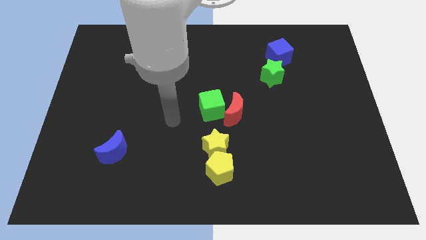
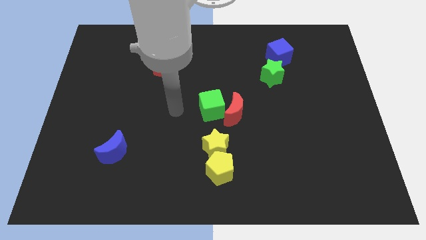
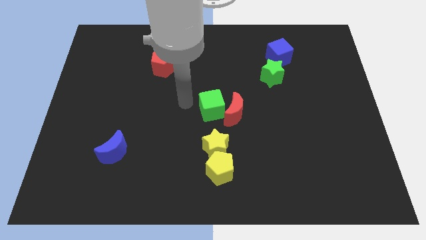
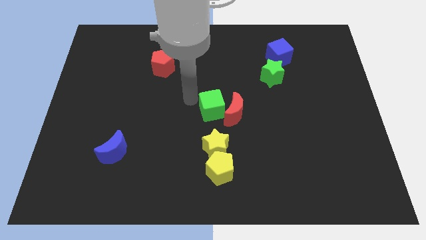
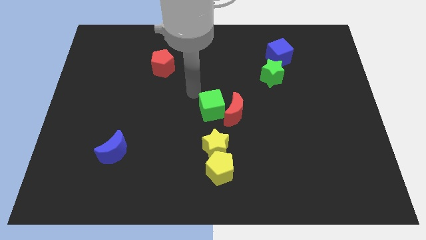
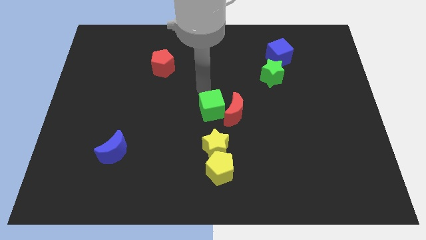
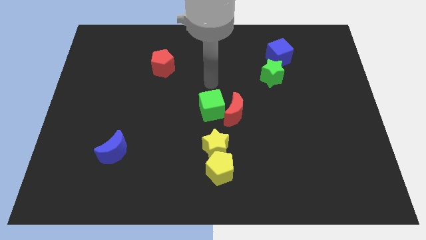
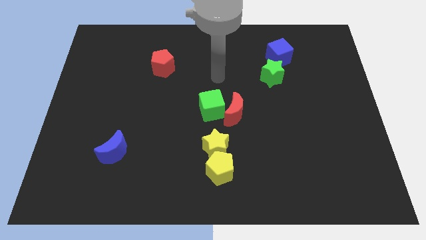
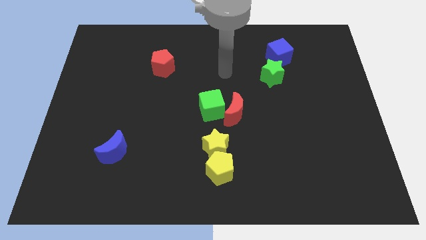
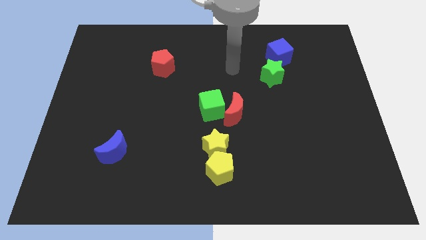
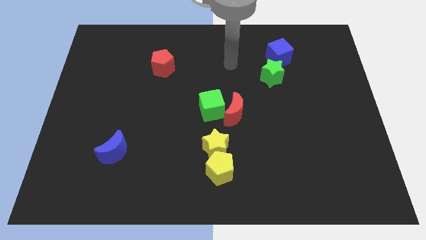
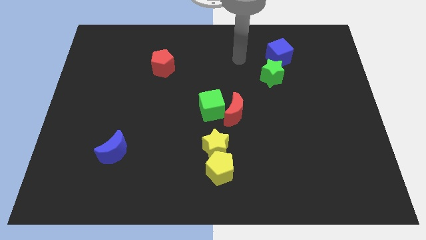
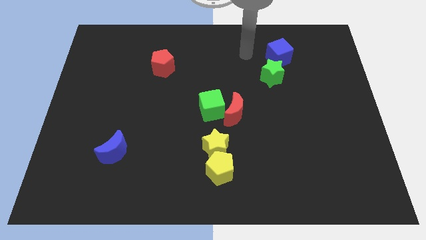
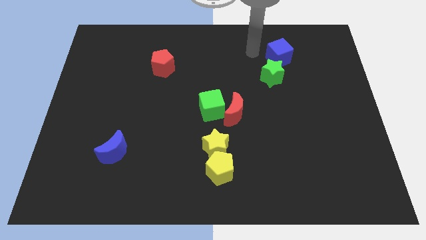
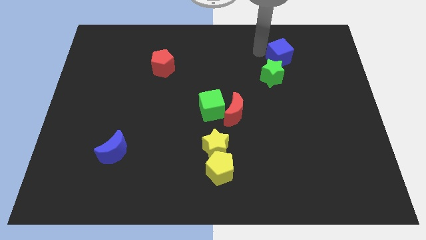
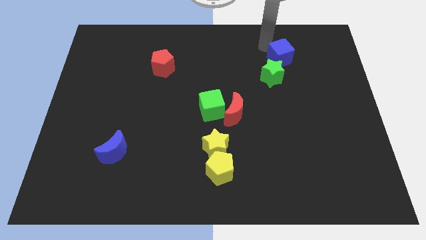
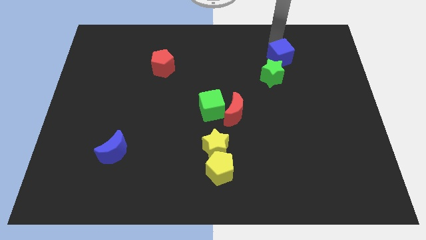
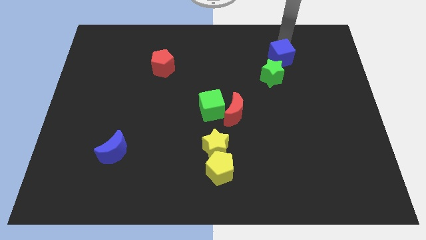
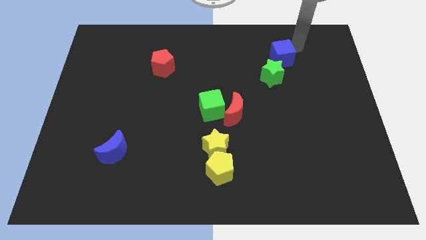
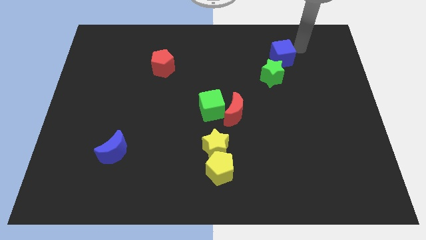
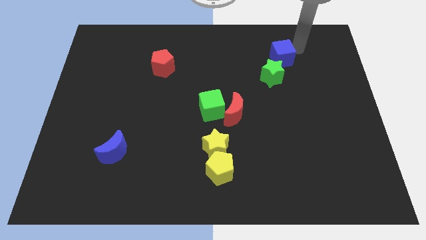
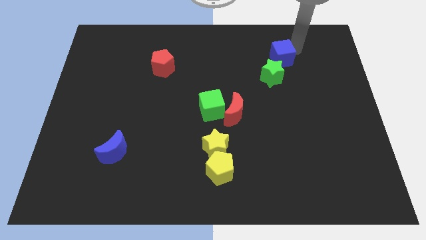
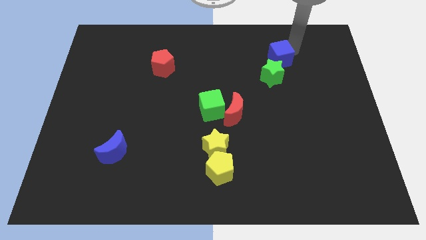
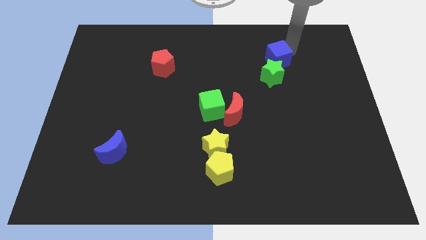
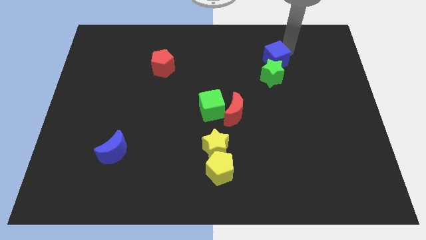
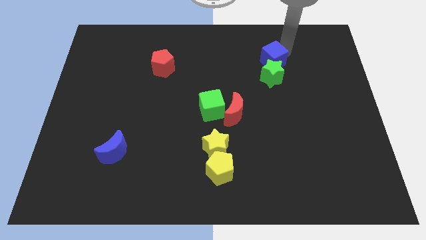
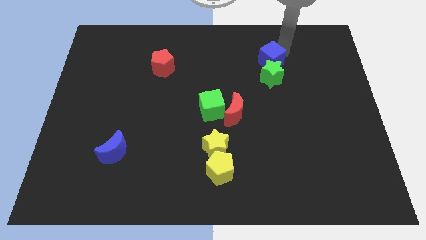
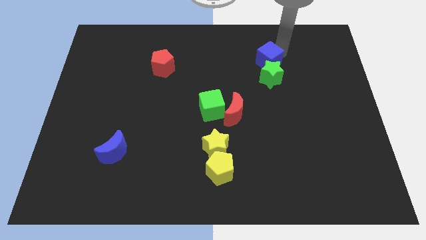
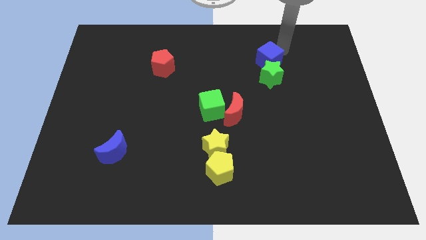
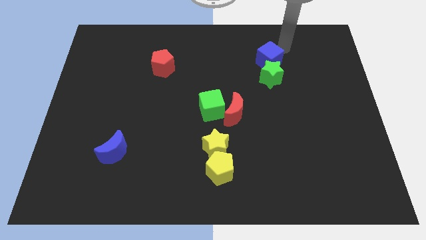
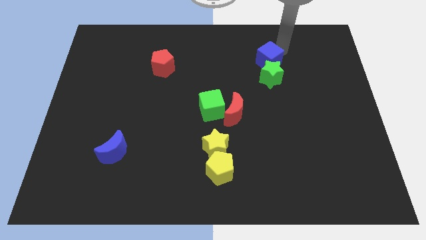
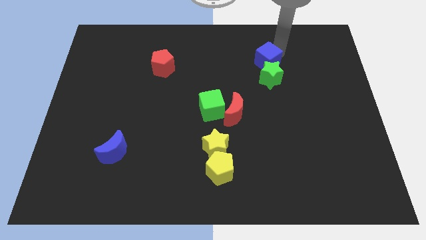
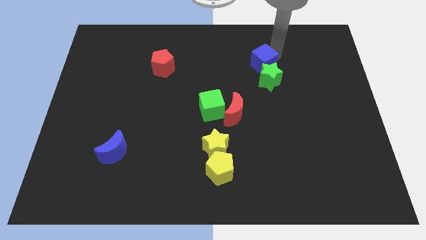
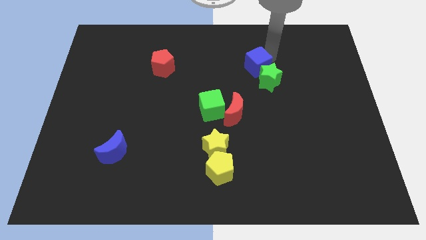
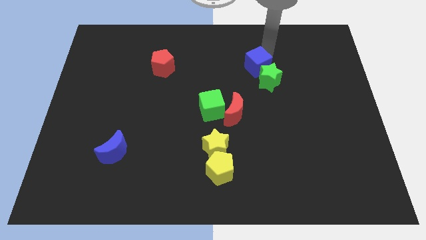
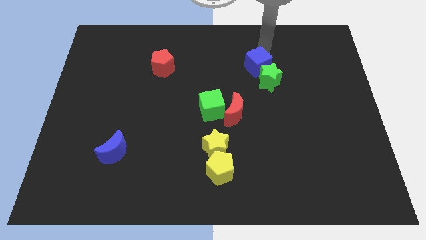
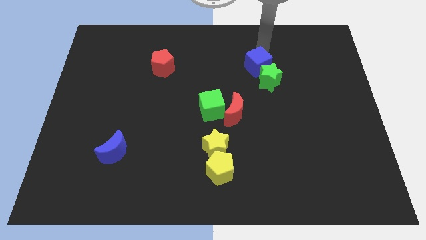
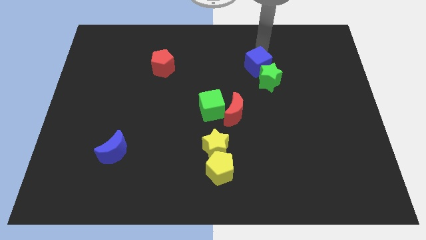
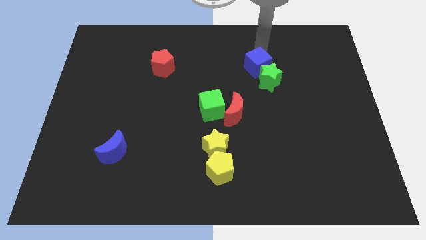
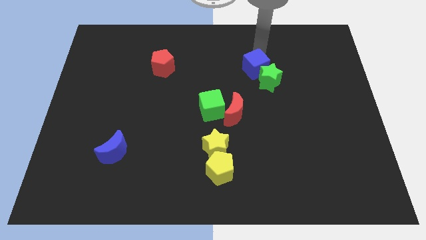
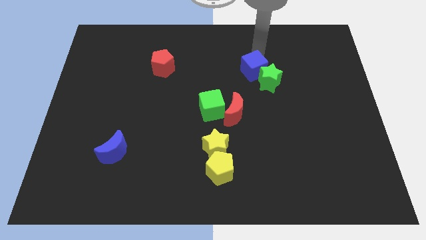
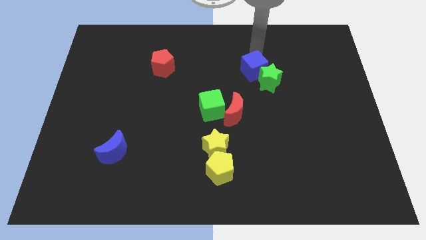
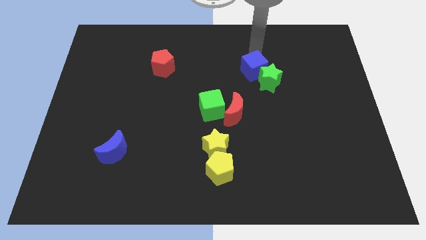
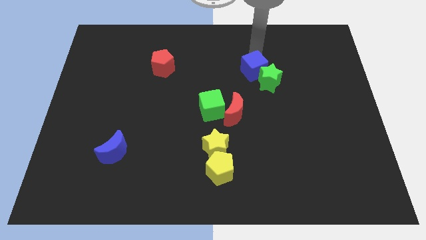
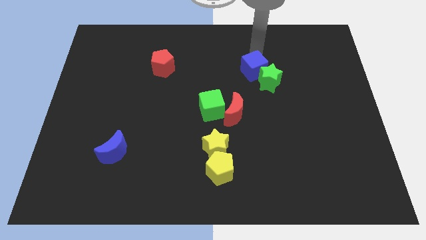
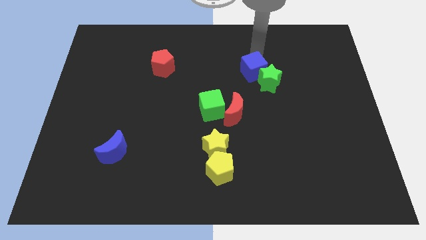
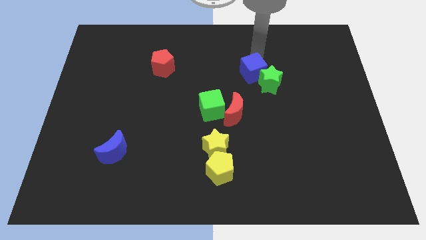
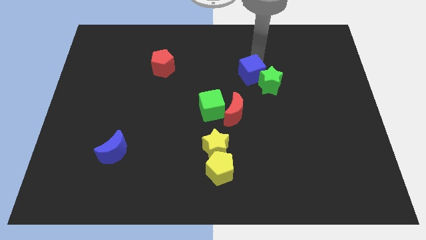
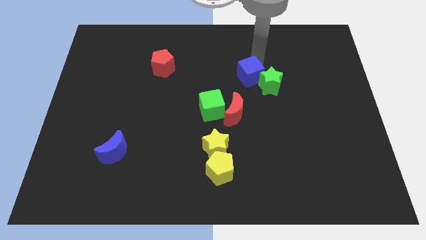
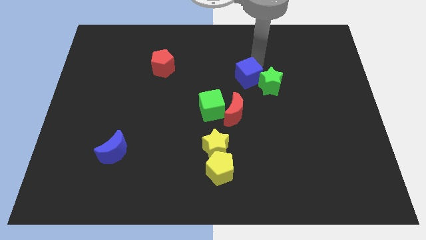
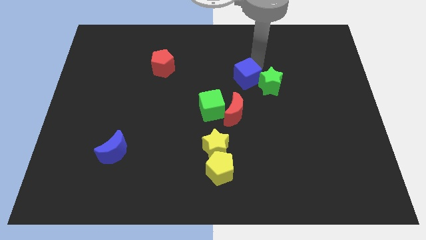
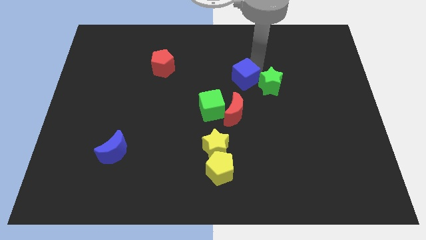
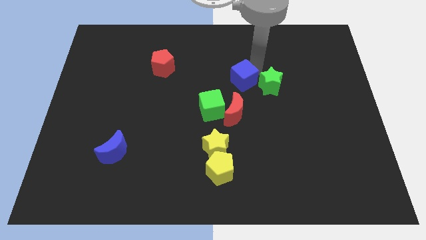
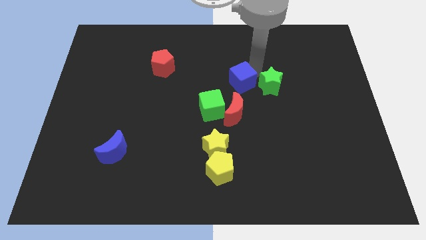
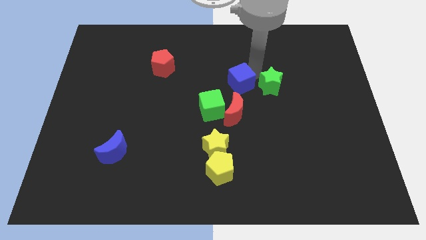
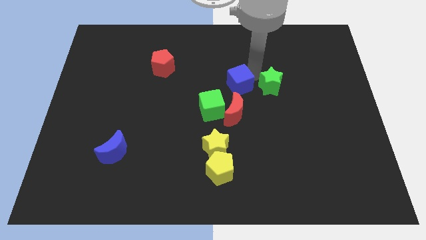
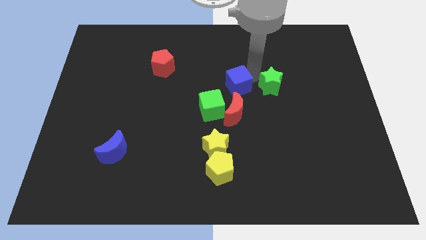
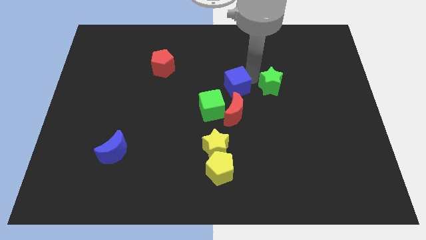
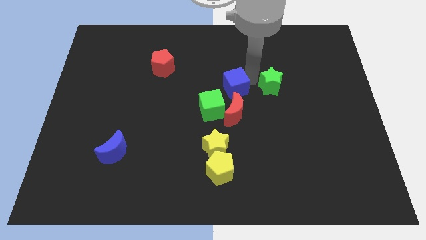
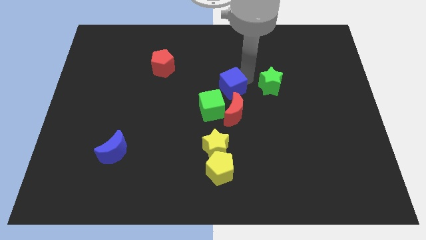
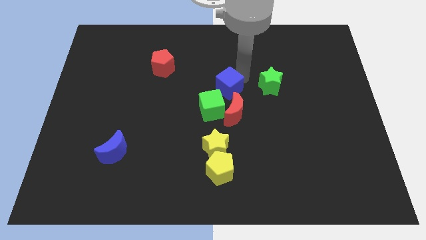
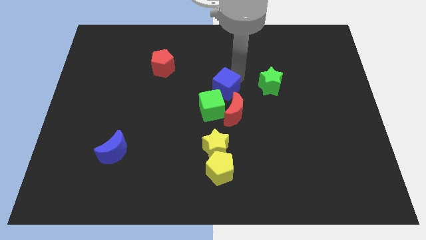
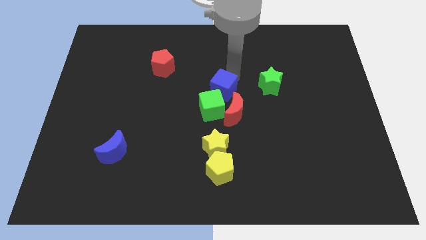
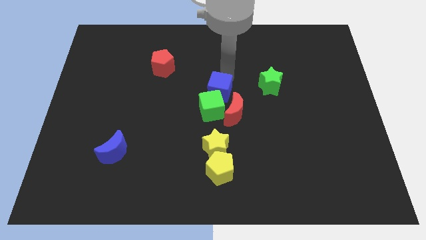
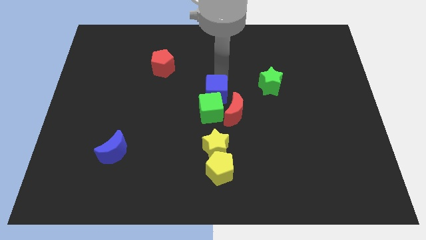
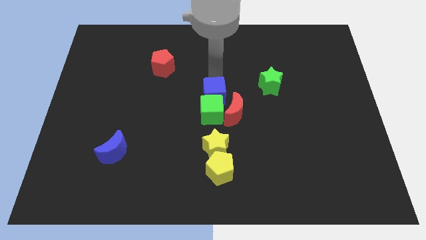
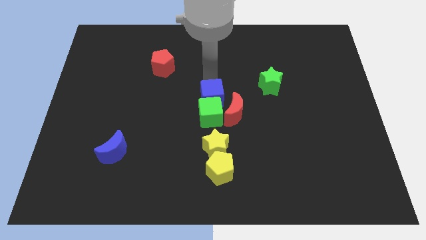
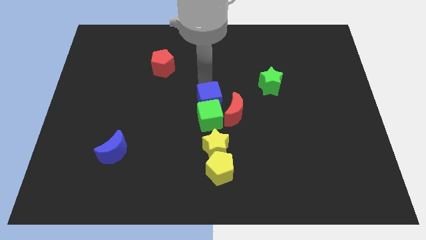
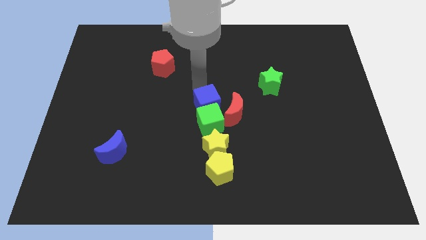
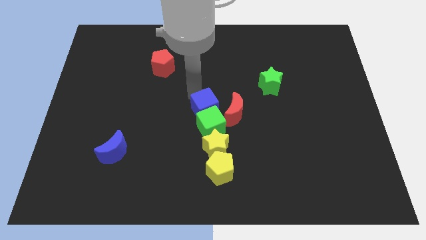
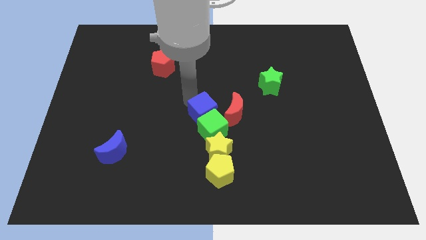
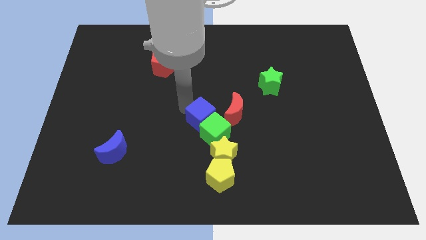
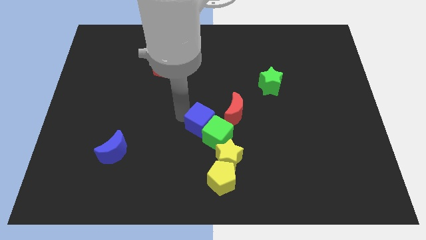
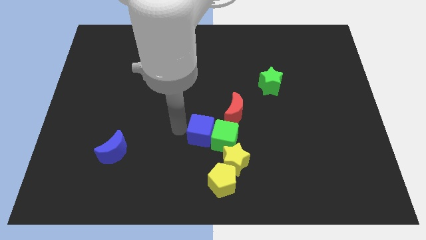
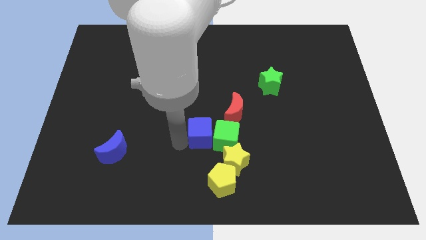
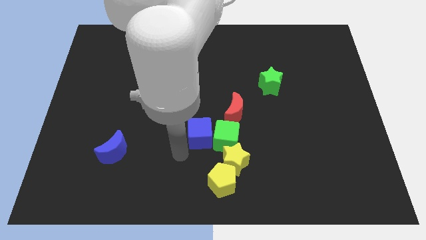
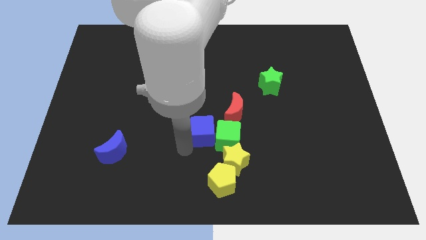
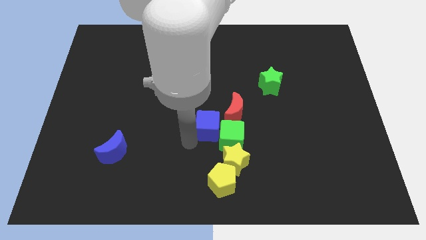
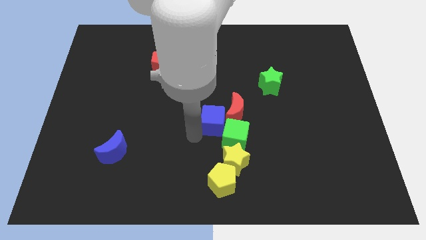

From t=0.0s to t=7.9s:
put the blue cube close to the red moon
